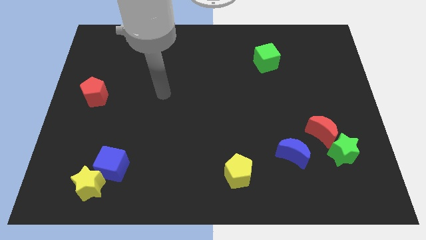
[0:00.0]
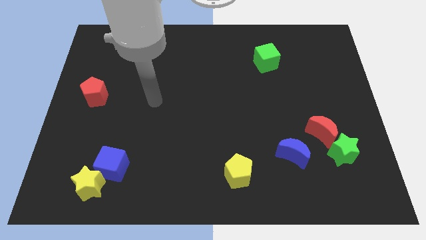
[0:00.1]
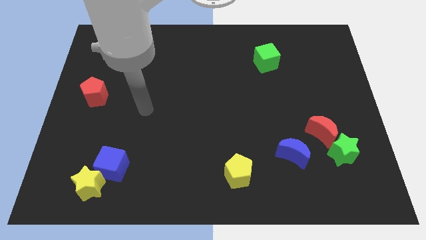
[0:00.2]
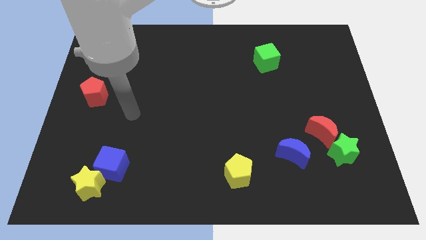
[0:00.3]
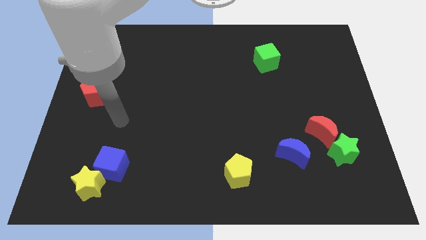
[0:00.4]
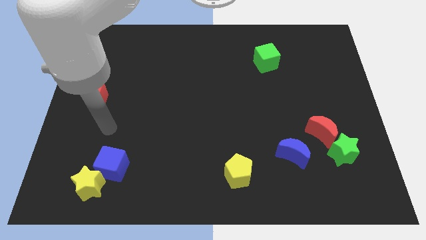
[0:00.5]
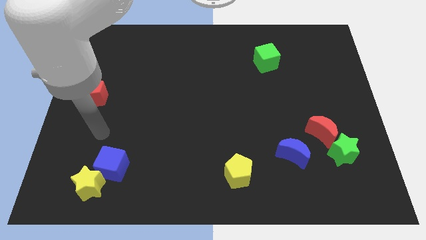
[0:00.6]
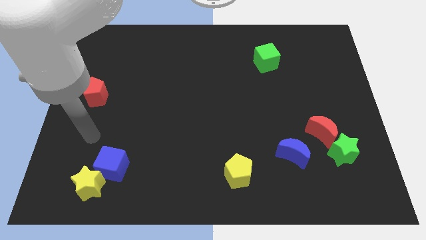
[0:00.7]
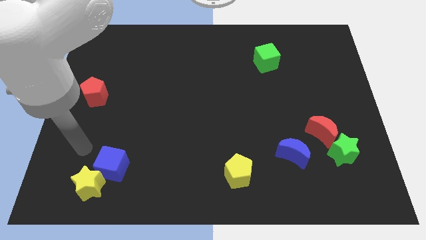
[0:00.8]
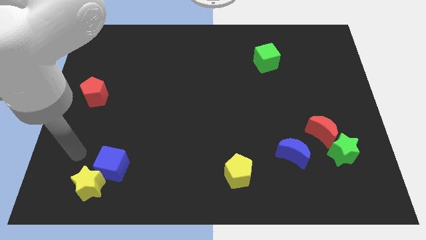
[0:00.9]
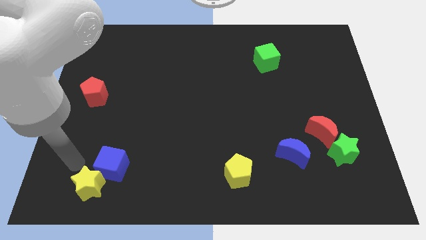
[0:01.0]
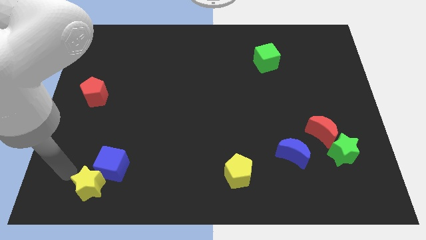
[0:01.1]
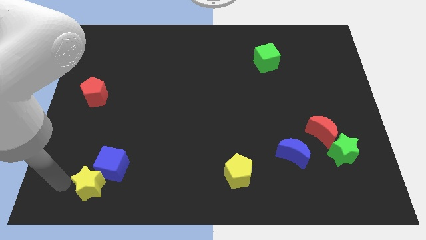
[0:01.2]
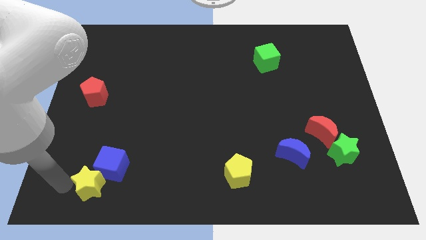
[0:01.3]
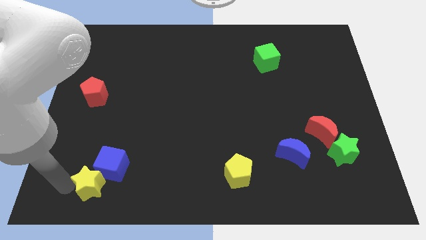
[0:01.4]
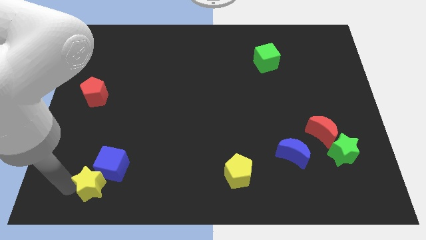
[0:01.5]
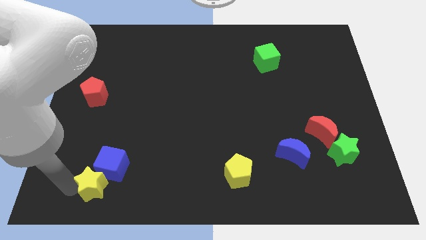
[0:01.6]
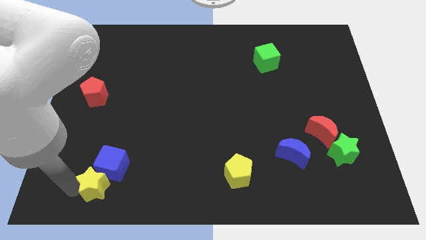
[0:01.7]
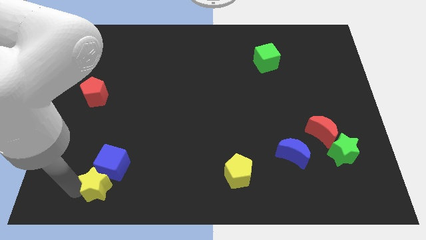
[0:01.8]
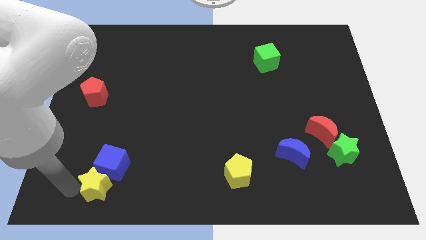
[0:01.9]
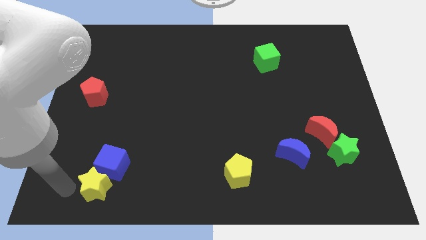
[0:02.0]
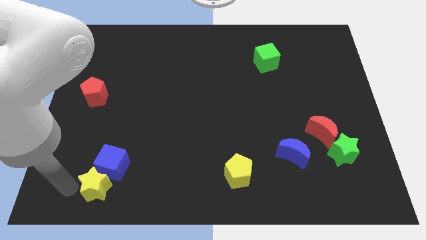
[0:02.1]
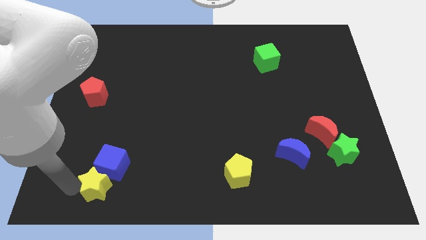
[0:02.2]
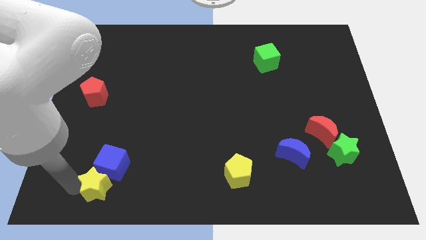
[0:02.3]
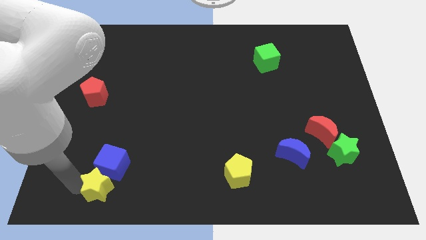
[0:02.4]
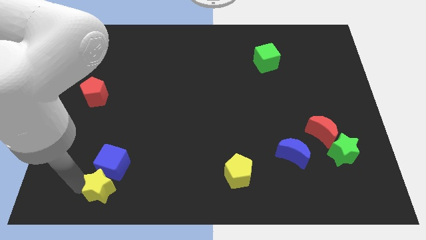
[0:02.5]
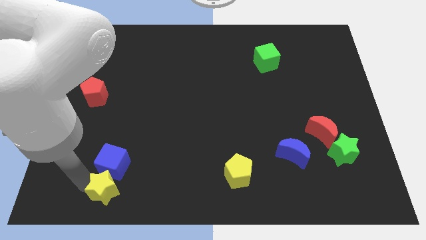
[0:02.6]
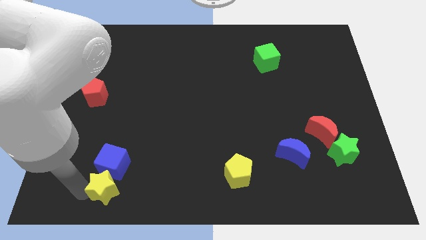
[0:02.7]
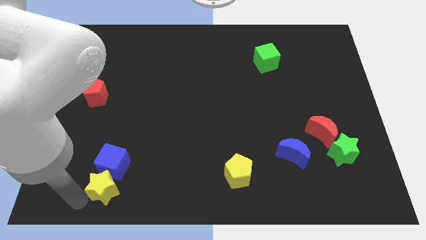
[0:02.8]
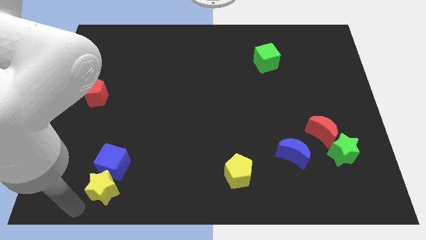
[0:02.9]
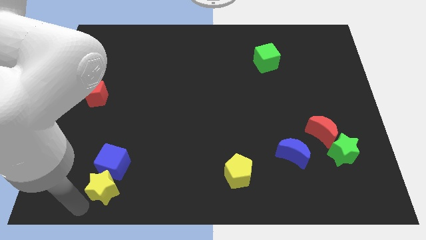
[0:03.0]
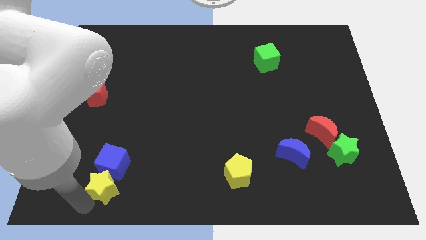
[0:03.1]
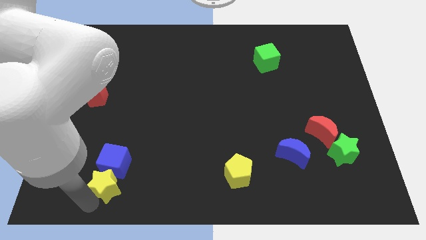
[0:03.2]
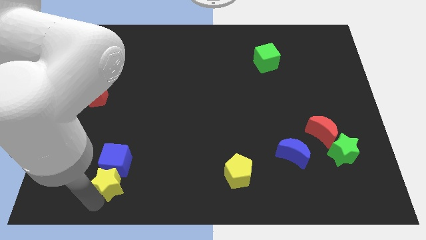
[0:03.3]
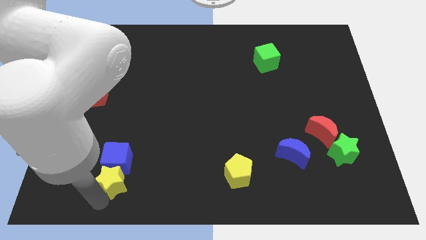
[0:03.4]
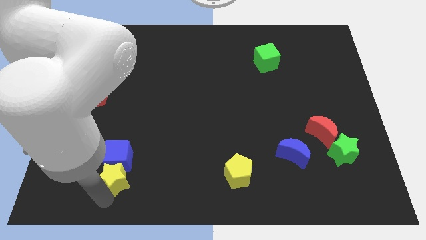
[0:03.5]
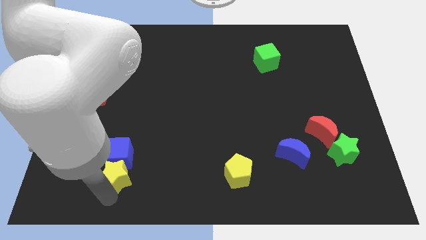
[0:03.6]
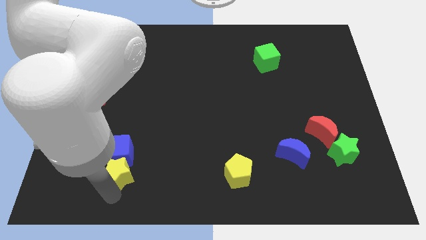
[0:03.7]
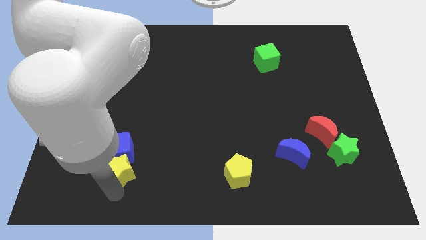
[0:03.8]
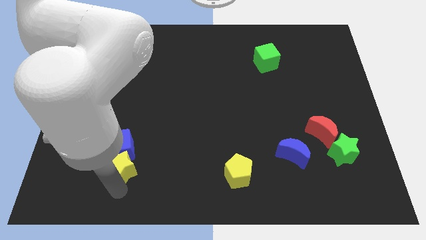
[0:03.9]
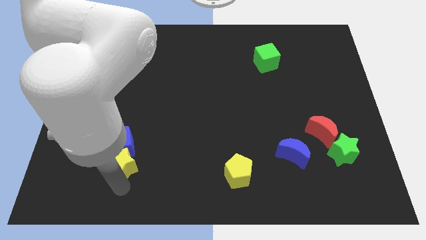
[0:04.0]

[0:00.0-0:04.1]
move the yellow star diagonally up and right slightly

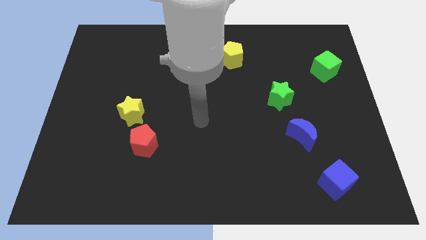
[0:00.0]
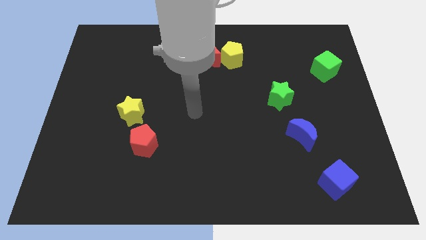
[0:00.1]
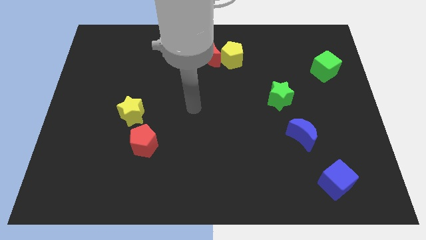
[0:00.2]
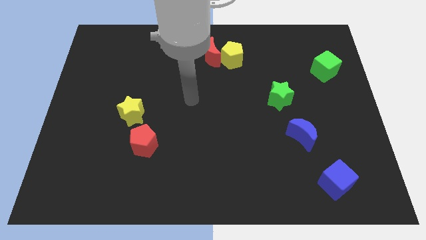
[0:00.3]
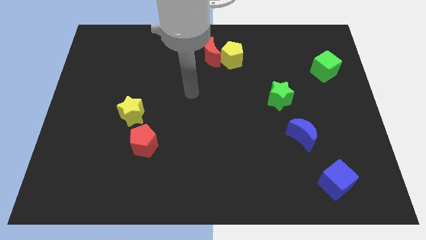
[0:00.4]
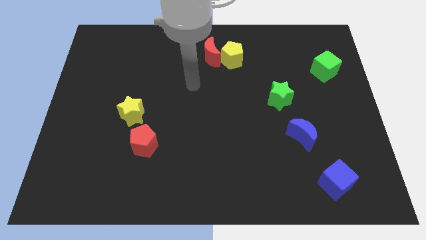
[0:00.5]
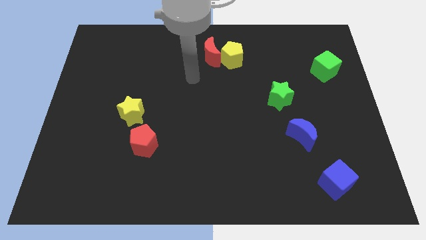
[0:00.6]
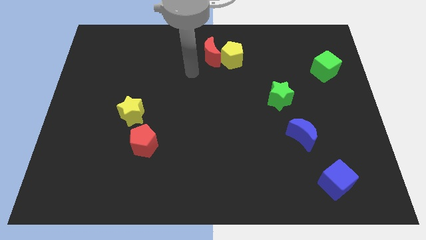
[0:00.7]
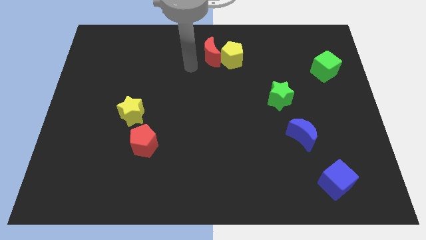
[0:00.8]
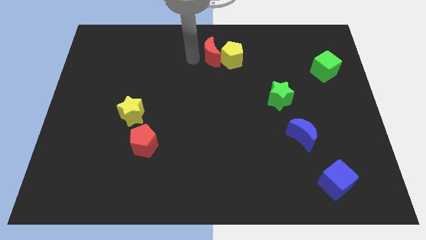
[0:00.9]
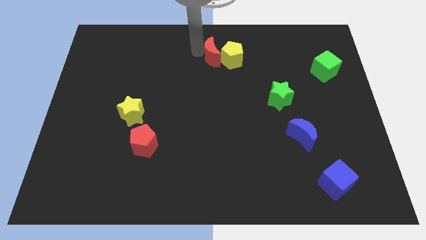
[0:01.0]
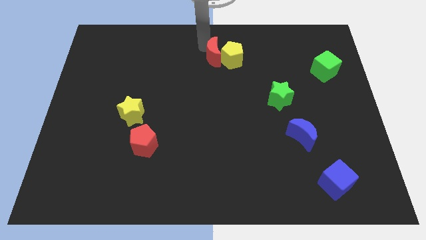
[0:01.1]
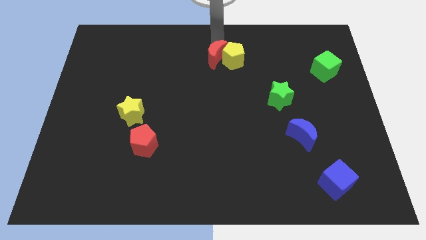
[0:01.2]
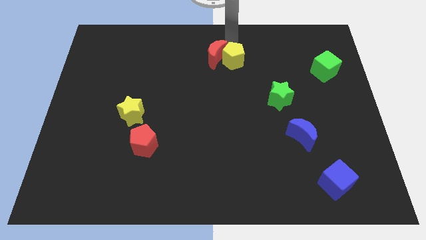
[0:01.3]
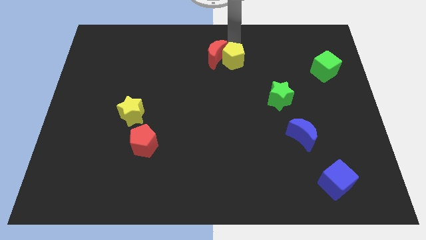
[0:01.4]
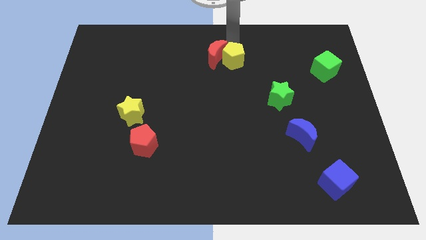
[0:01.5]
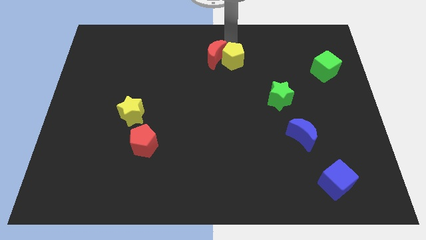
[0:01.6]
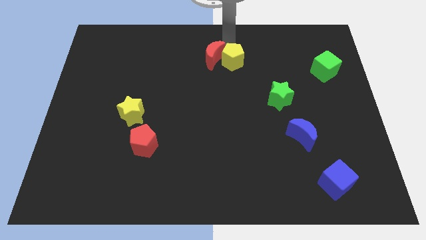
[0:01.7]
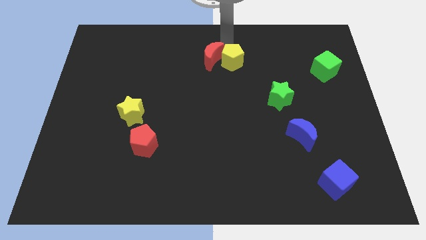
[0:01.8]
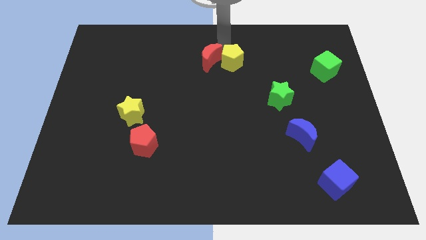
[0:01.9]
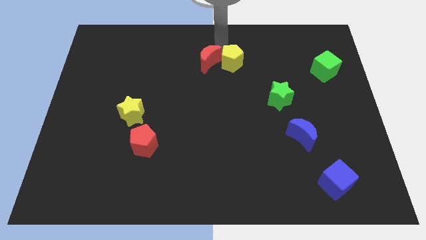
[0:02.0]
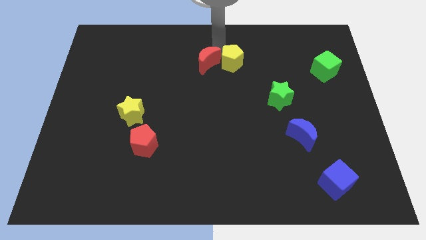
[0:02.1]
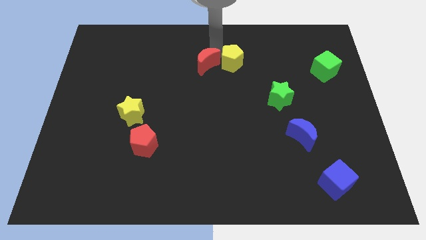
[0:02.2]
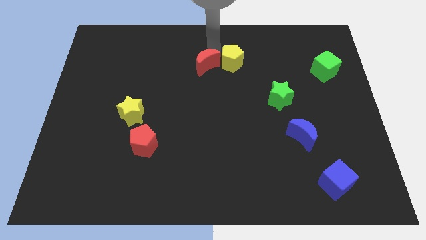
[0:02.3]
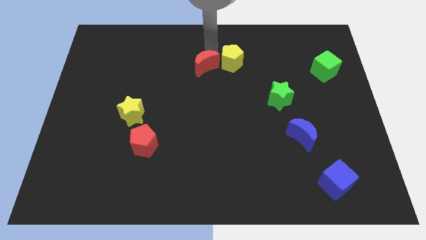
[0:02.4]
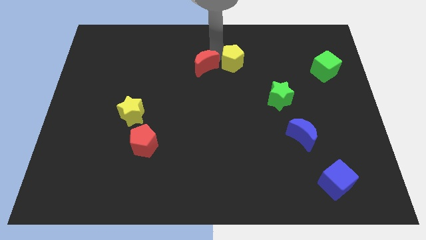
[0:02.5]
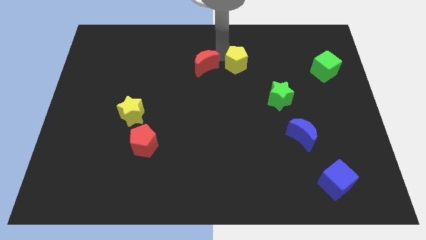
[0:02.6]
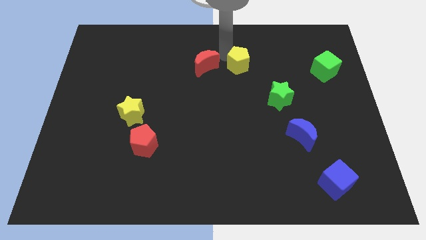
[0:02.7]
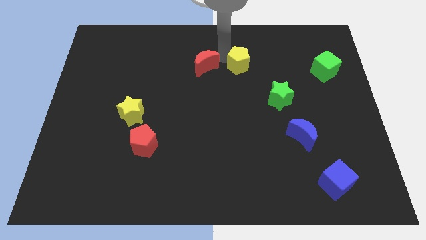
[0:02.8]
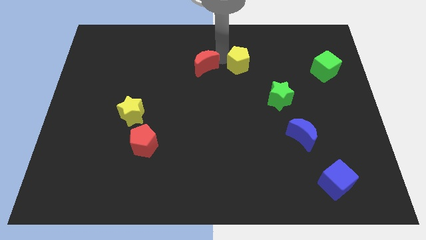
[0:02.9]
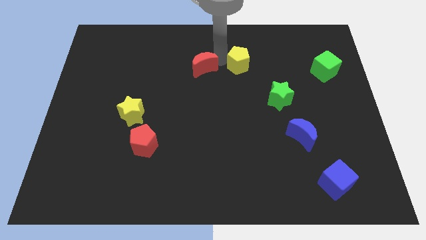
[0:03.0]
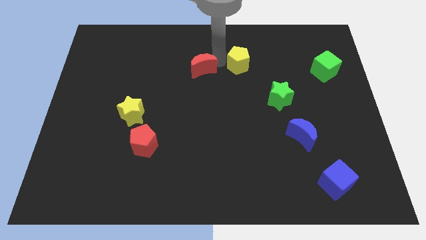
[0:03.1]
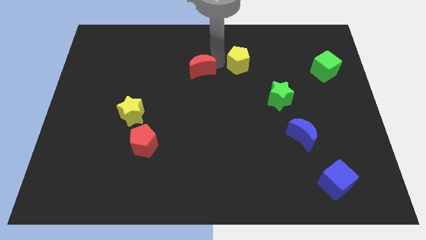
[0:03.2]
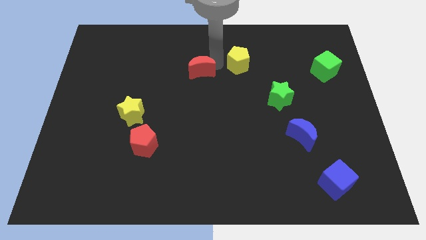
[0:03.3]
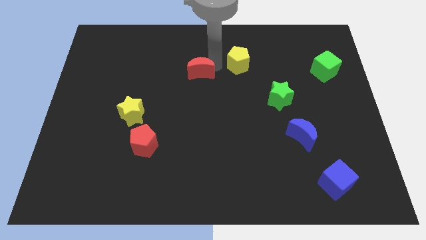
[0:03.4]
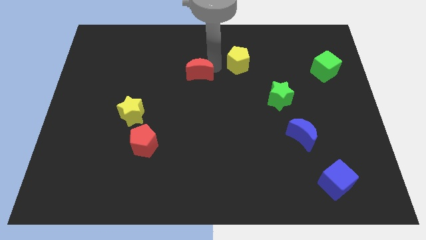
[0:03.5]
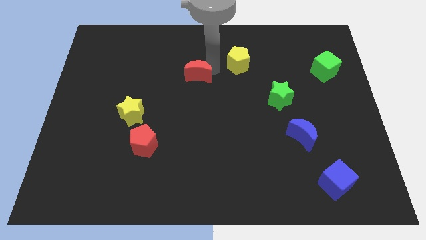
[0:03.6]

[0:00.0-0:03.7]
push the red moon slightly downwards and then left
